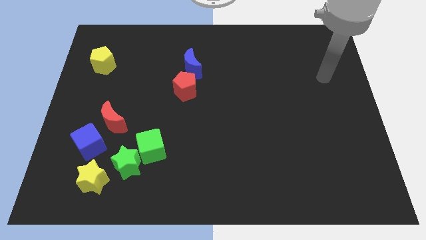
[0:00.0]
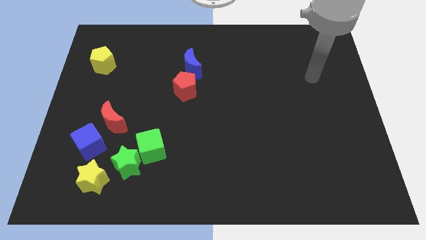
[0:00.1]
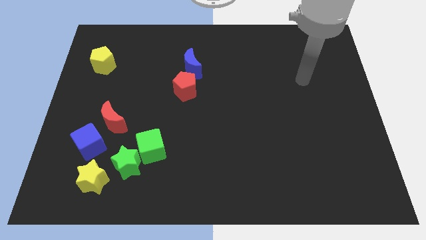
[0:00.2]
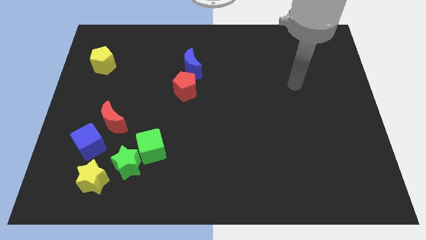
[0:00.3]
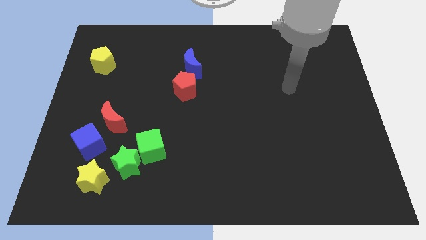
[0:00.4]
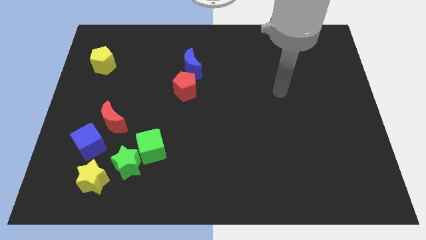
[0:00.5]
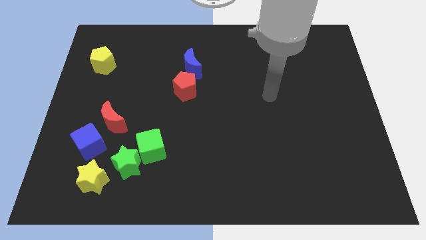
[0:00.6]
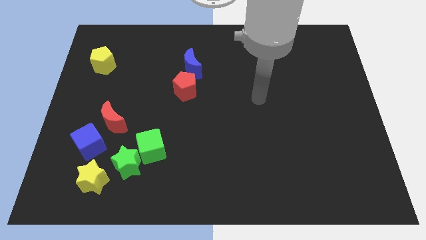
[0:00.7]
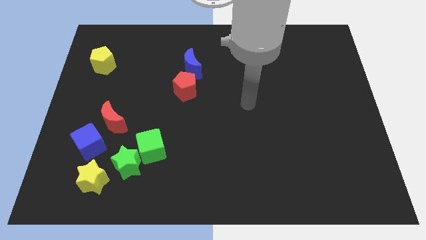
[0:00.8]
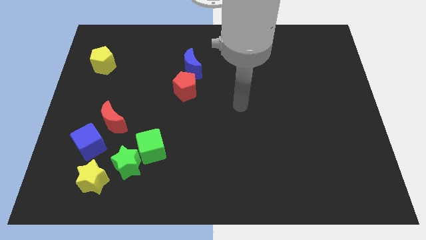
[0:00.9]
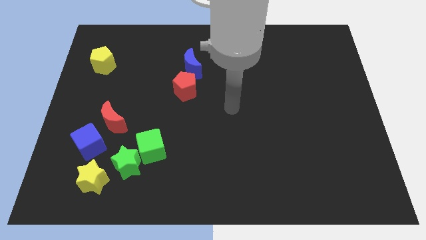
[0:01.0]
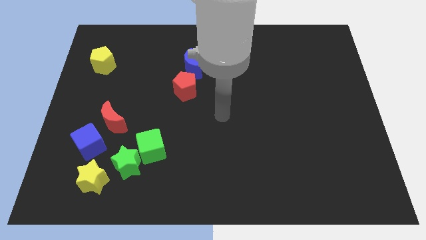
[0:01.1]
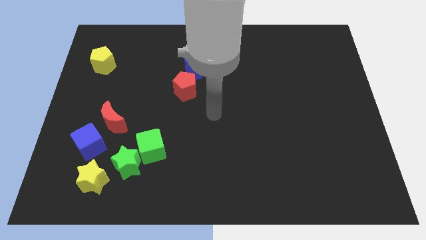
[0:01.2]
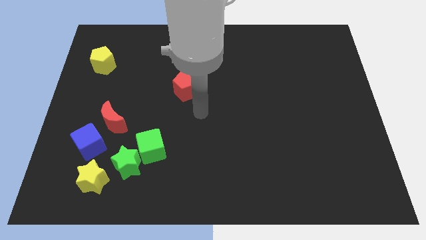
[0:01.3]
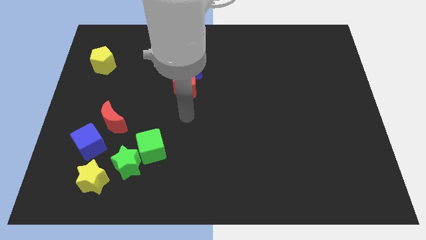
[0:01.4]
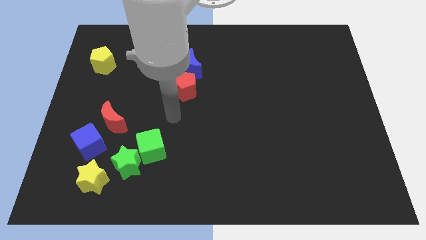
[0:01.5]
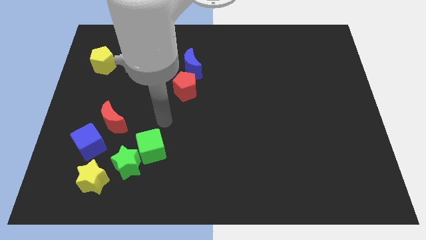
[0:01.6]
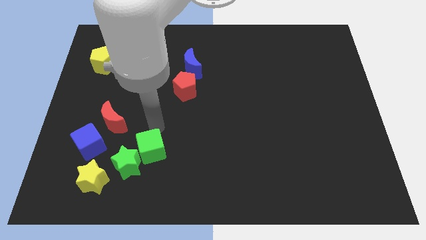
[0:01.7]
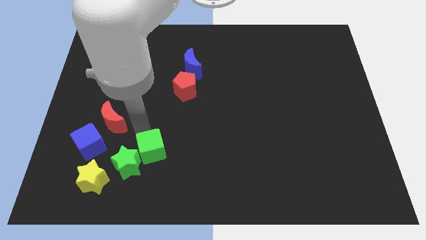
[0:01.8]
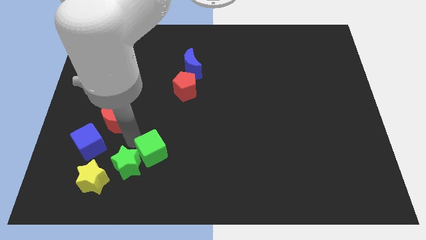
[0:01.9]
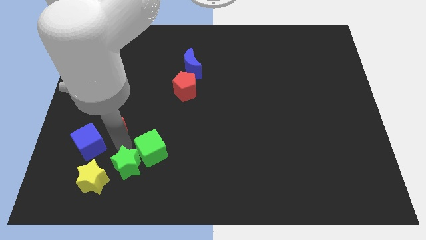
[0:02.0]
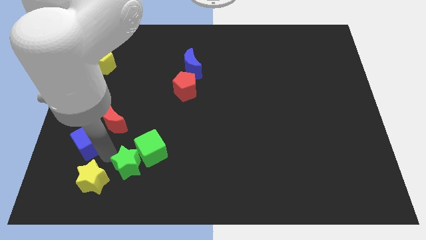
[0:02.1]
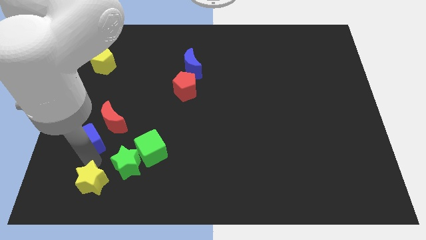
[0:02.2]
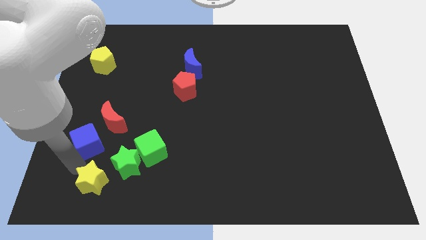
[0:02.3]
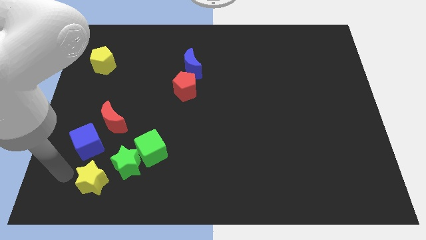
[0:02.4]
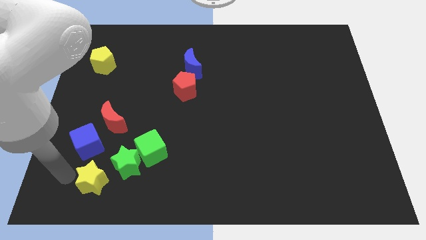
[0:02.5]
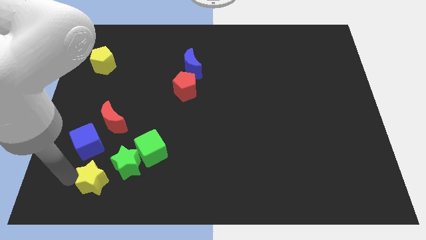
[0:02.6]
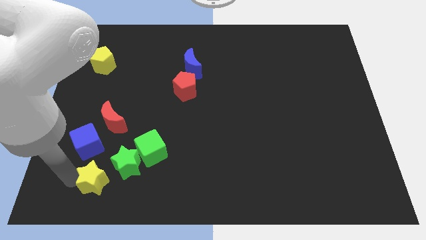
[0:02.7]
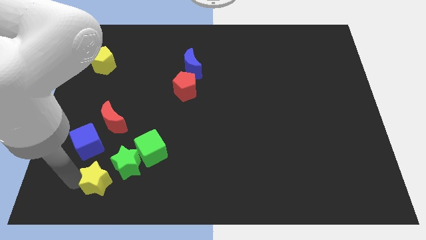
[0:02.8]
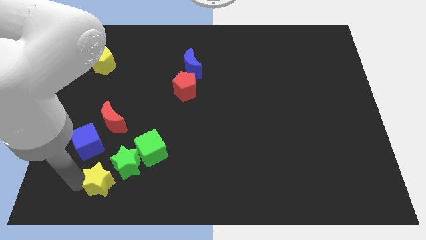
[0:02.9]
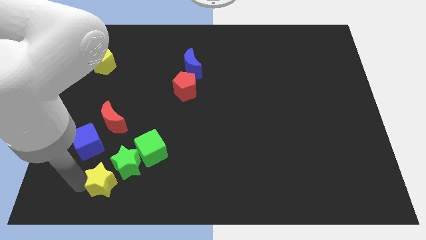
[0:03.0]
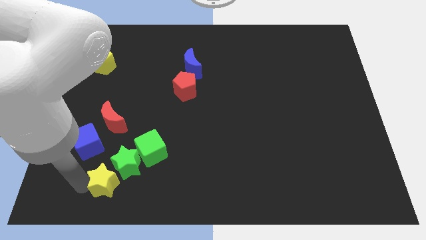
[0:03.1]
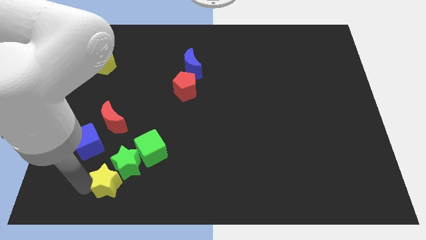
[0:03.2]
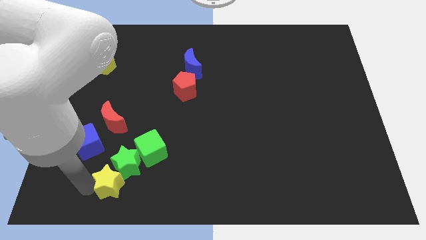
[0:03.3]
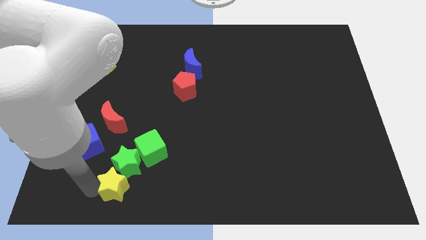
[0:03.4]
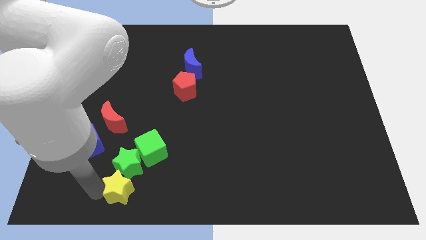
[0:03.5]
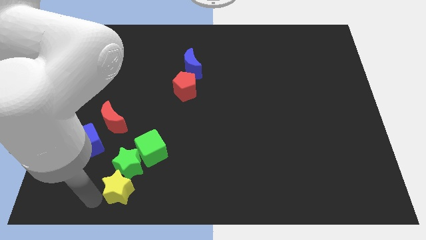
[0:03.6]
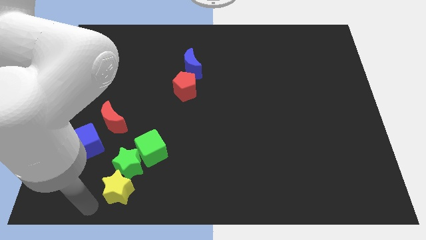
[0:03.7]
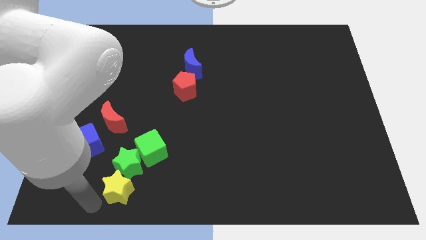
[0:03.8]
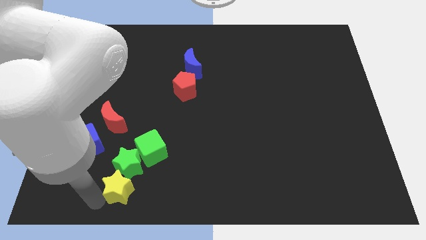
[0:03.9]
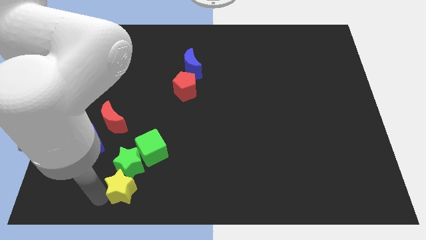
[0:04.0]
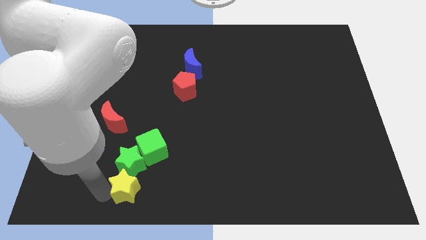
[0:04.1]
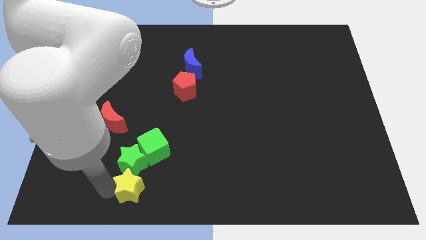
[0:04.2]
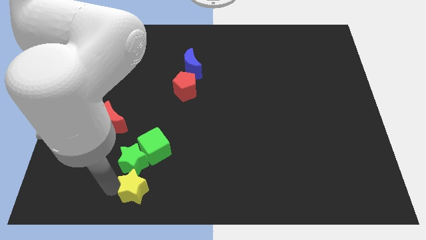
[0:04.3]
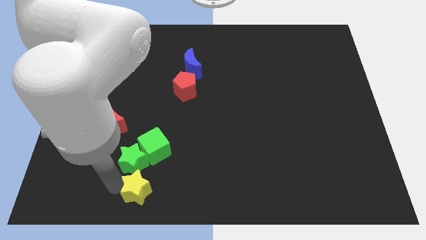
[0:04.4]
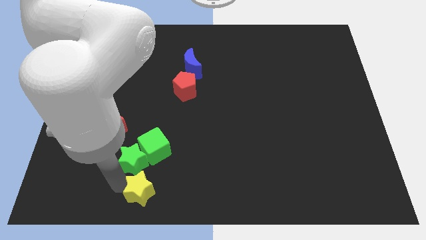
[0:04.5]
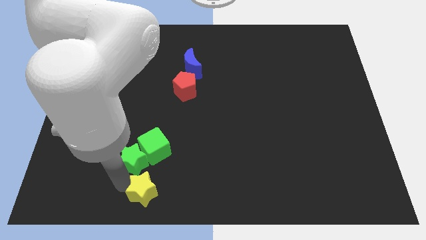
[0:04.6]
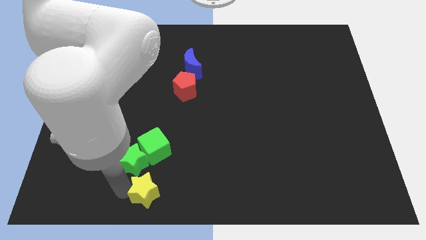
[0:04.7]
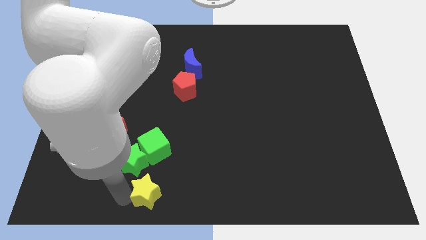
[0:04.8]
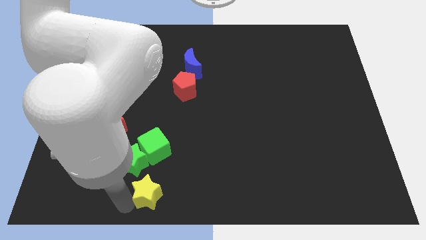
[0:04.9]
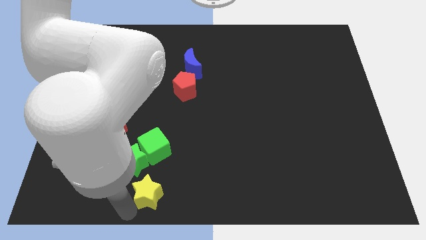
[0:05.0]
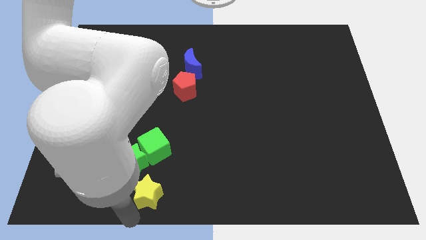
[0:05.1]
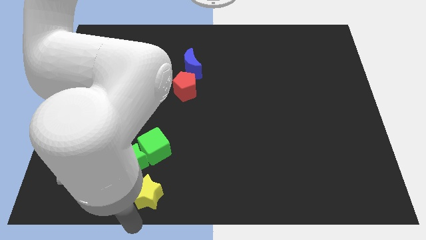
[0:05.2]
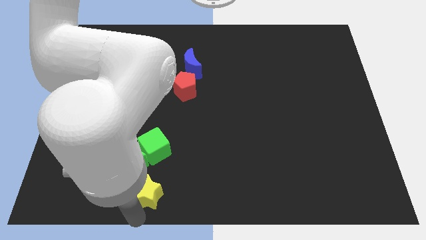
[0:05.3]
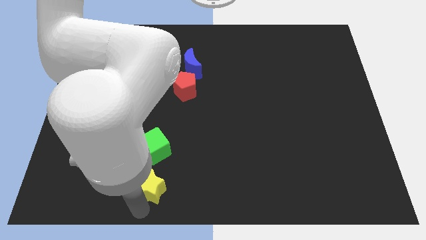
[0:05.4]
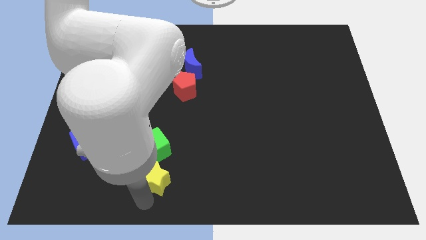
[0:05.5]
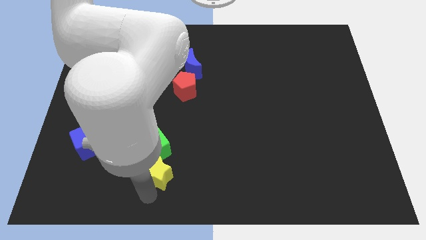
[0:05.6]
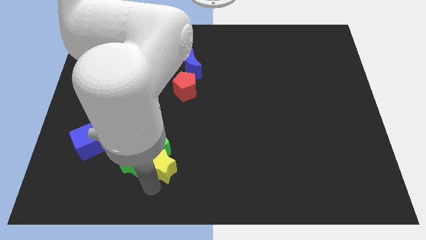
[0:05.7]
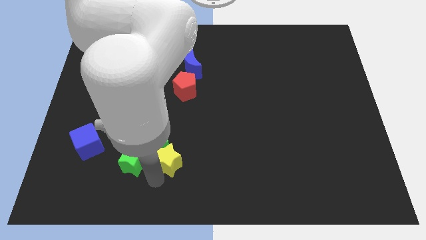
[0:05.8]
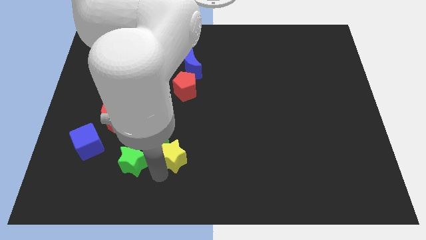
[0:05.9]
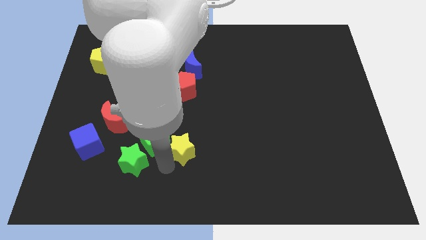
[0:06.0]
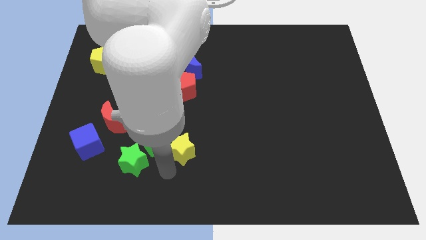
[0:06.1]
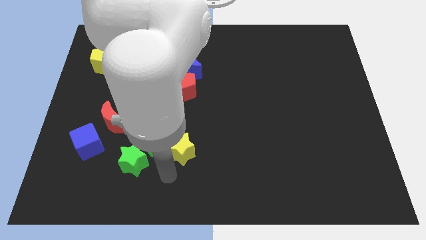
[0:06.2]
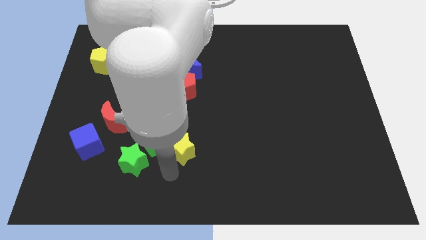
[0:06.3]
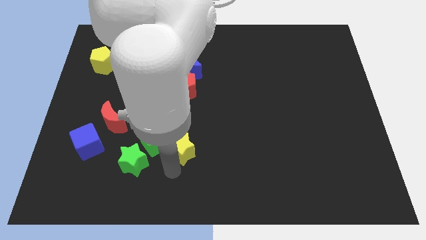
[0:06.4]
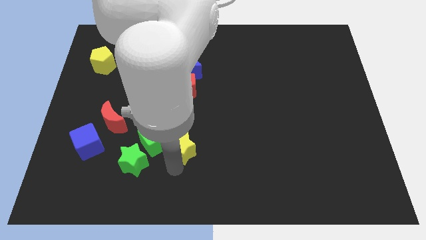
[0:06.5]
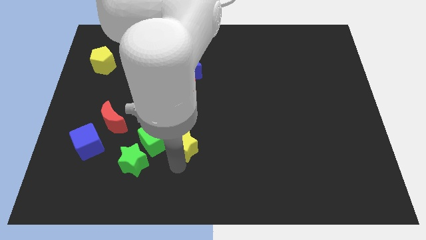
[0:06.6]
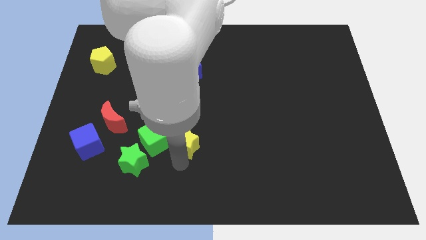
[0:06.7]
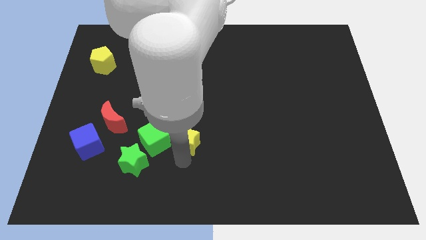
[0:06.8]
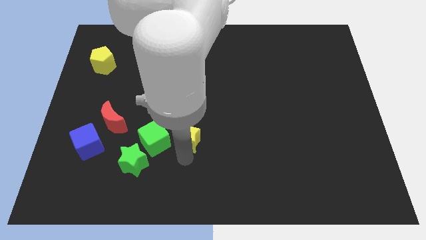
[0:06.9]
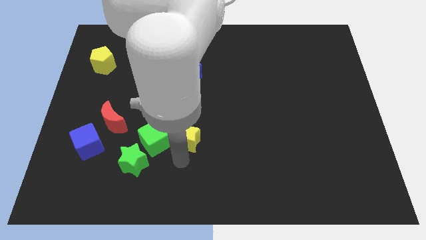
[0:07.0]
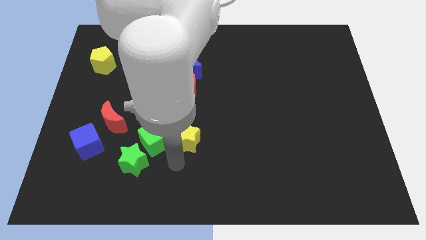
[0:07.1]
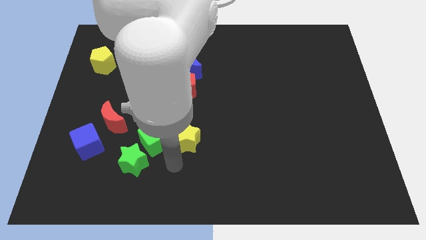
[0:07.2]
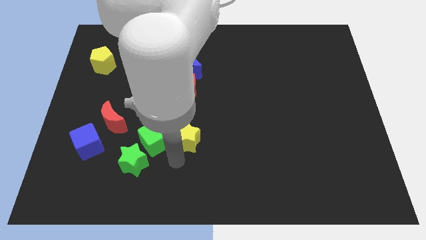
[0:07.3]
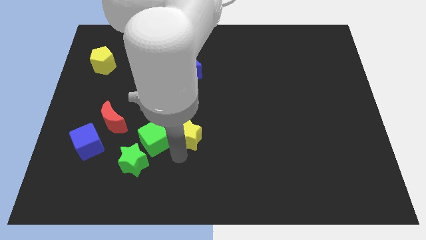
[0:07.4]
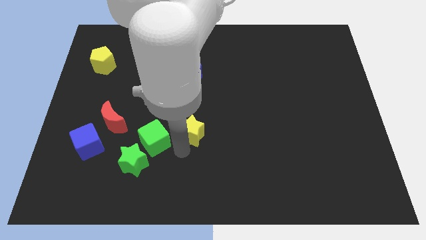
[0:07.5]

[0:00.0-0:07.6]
push the yellow star upwards and right

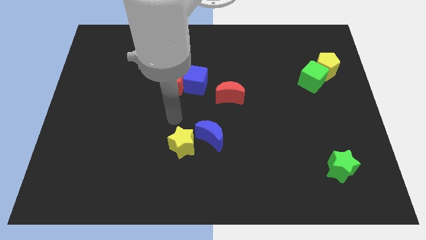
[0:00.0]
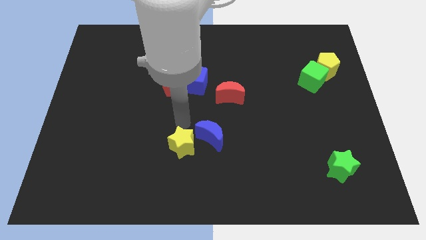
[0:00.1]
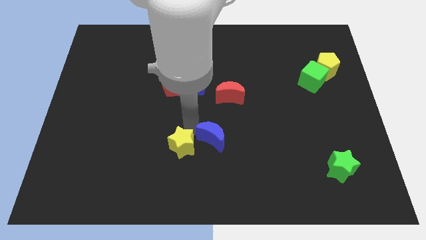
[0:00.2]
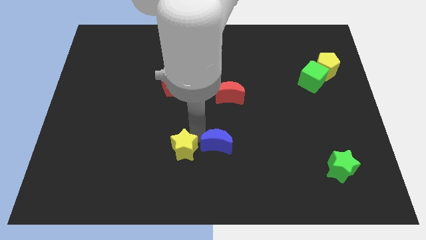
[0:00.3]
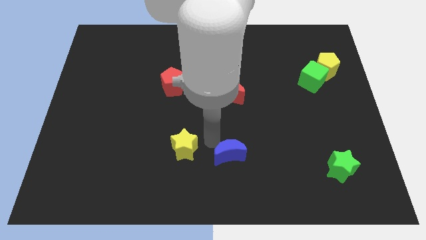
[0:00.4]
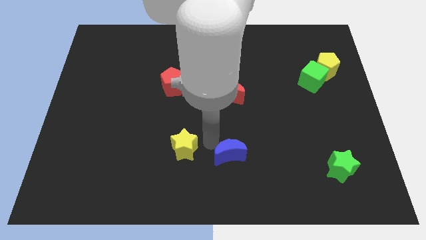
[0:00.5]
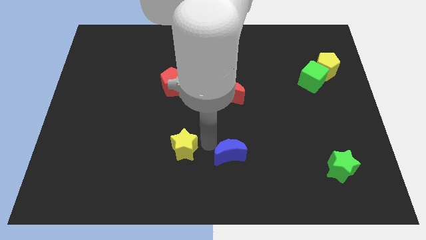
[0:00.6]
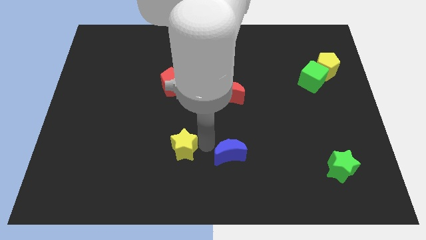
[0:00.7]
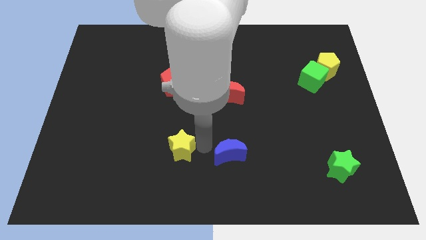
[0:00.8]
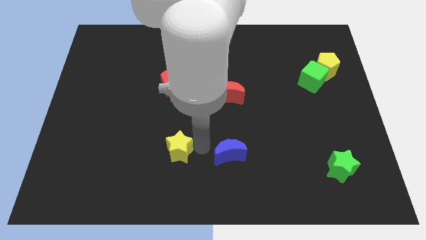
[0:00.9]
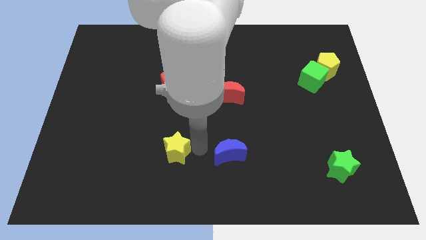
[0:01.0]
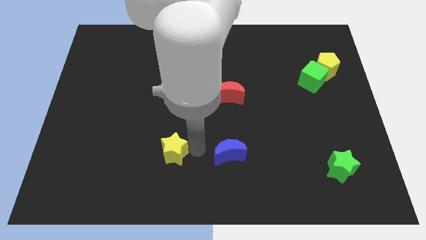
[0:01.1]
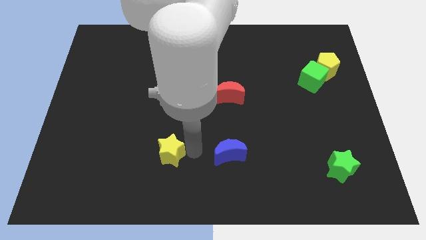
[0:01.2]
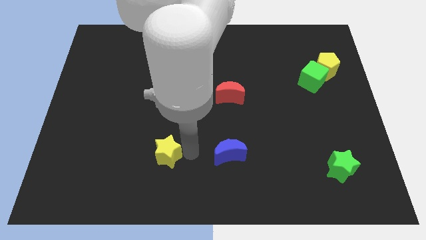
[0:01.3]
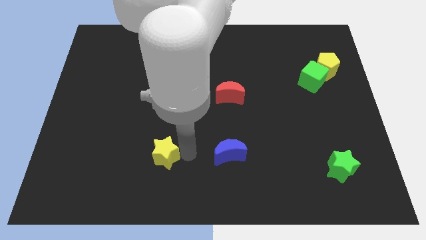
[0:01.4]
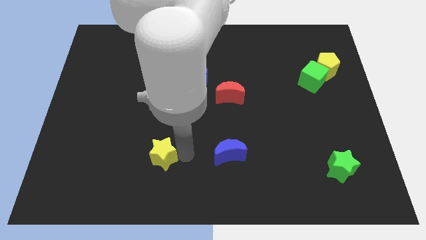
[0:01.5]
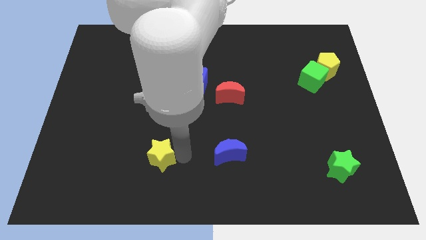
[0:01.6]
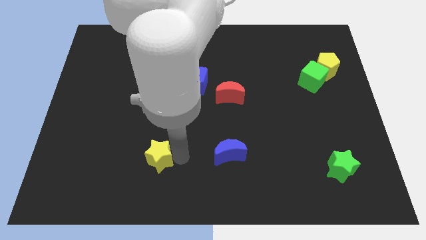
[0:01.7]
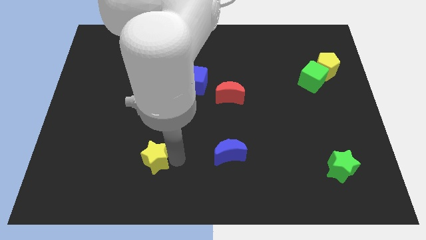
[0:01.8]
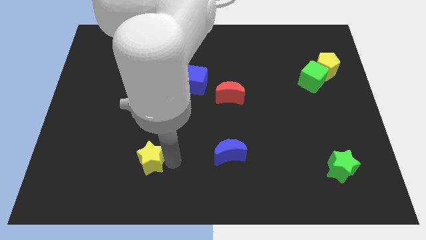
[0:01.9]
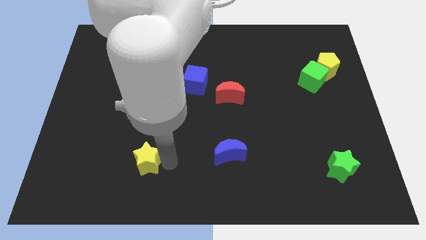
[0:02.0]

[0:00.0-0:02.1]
push the yellow star left somewhat
